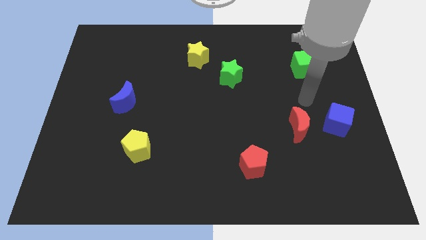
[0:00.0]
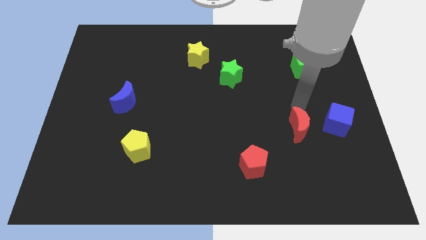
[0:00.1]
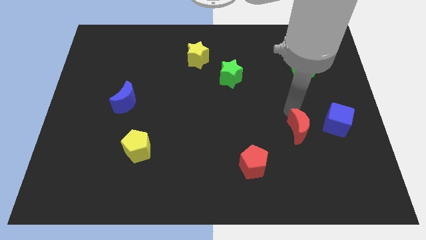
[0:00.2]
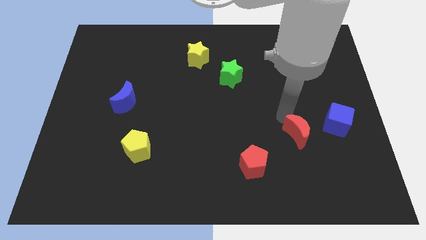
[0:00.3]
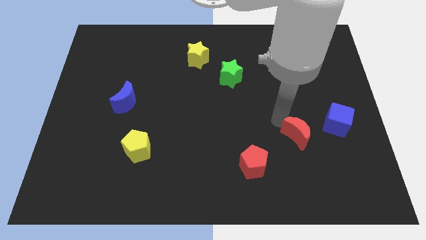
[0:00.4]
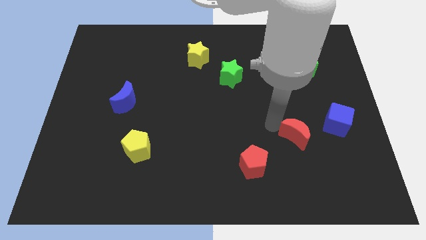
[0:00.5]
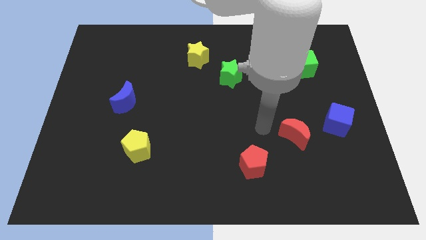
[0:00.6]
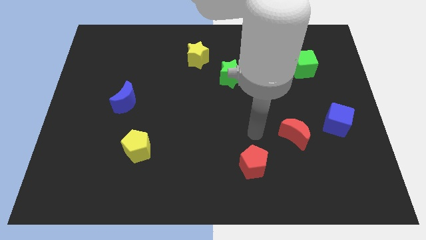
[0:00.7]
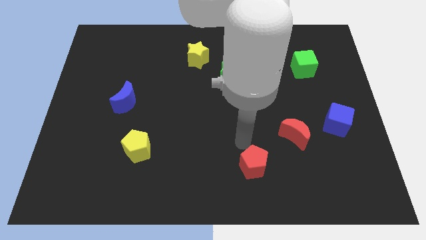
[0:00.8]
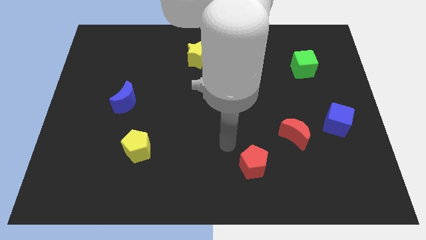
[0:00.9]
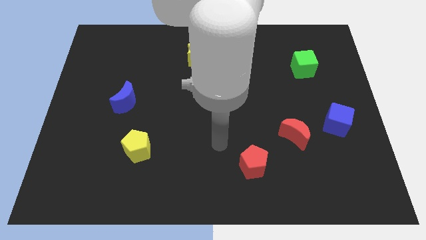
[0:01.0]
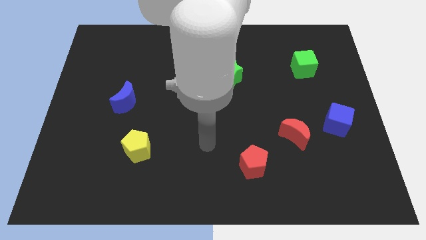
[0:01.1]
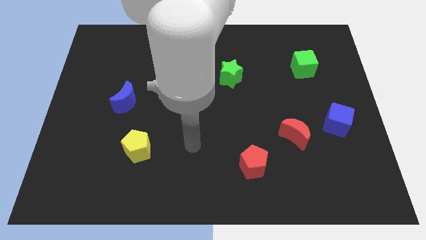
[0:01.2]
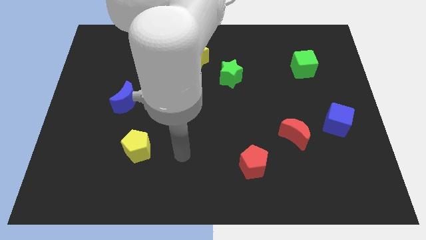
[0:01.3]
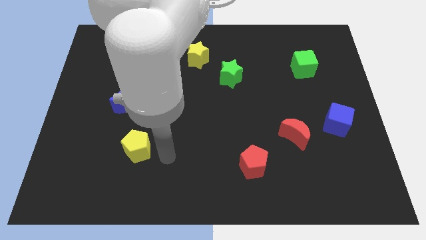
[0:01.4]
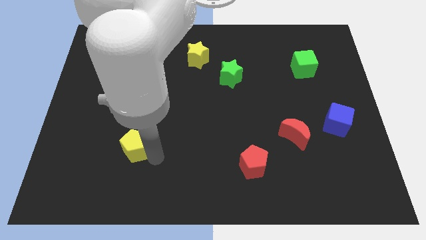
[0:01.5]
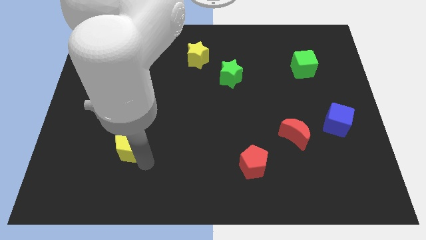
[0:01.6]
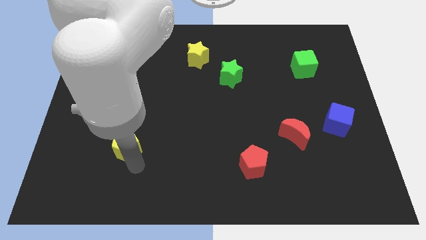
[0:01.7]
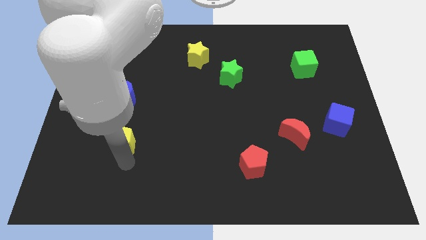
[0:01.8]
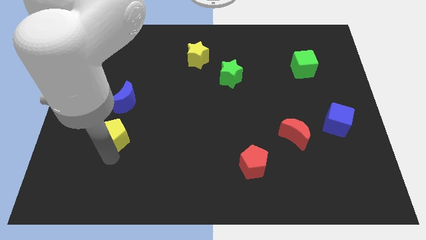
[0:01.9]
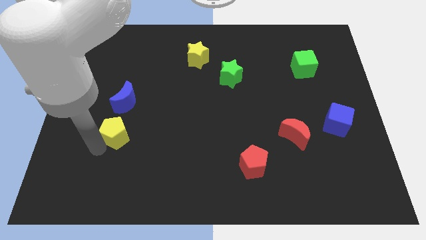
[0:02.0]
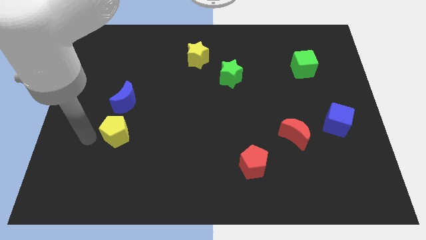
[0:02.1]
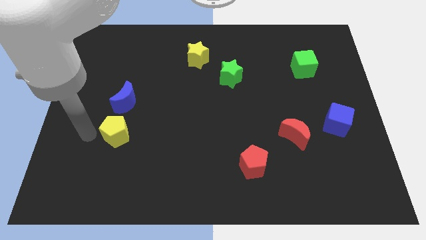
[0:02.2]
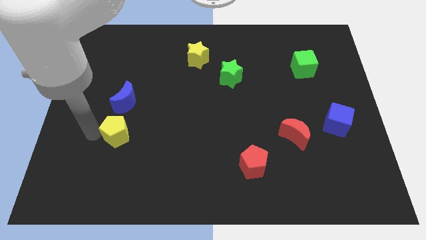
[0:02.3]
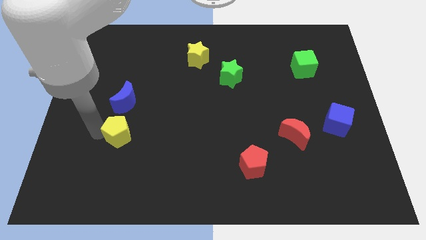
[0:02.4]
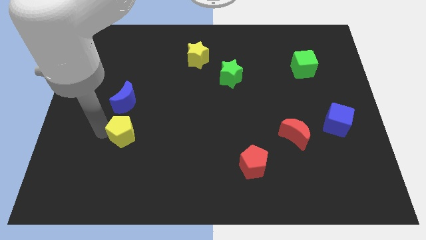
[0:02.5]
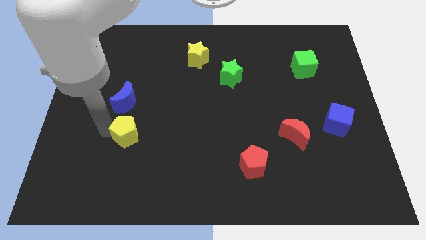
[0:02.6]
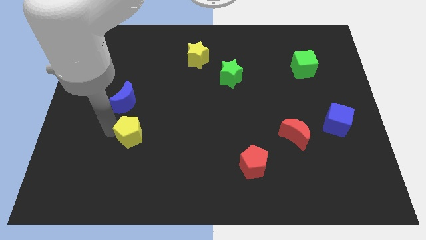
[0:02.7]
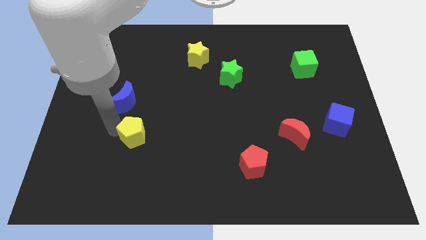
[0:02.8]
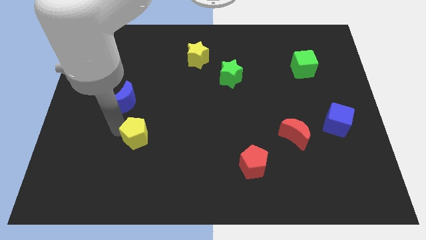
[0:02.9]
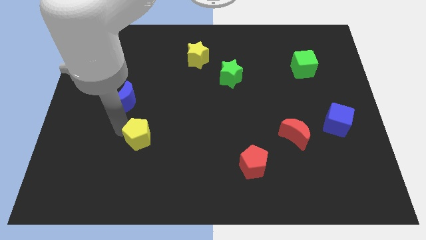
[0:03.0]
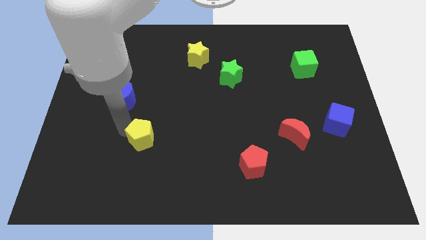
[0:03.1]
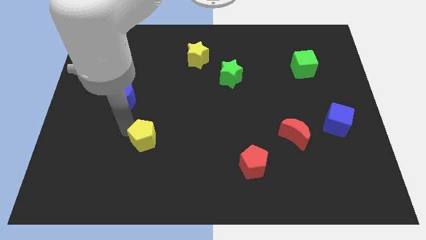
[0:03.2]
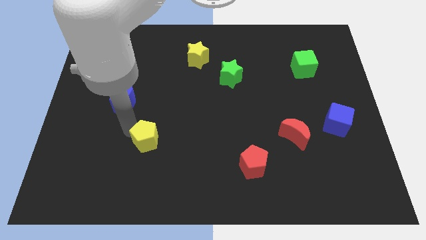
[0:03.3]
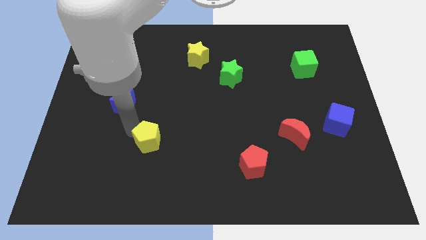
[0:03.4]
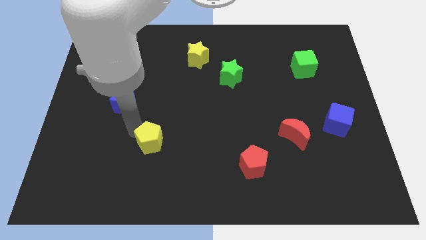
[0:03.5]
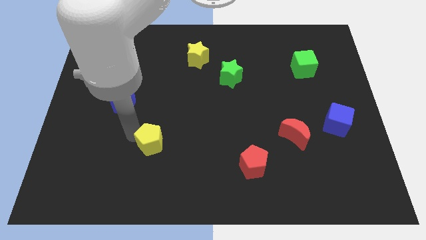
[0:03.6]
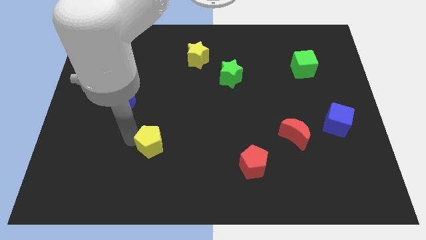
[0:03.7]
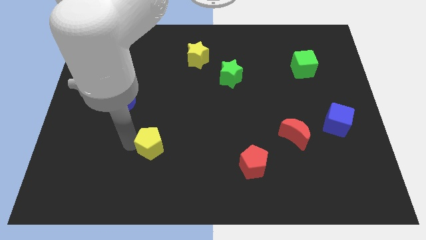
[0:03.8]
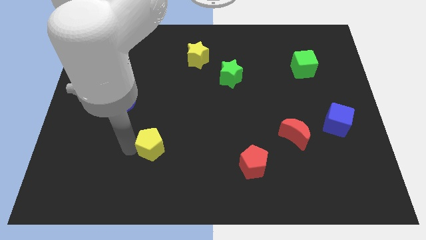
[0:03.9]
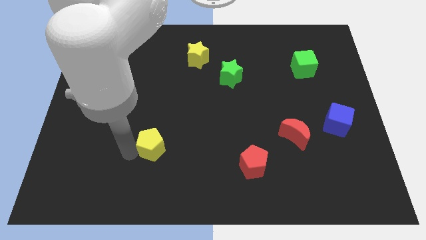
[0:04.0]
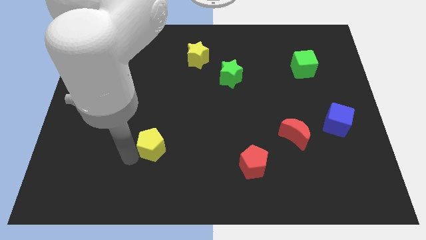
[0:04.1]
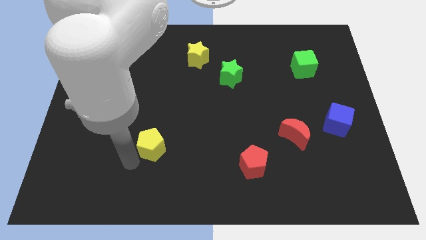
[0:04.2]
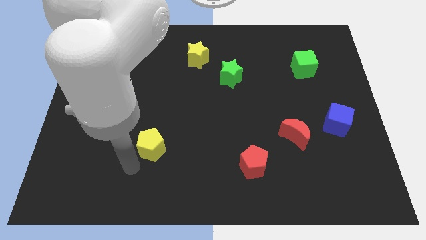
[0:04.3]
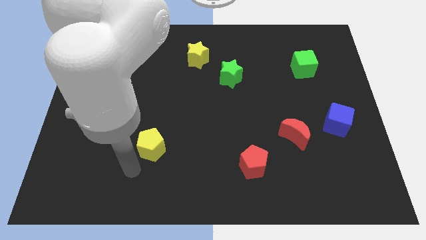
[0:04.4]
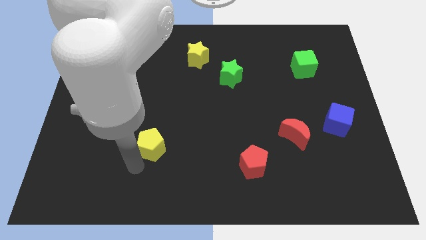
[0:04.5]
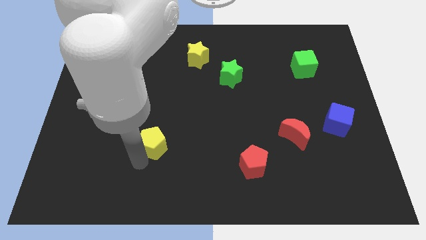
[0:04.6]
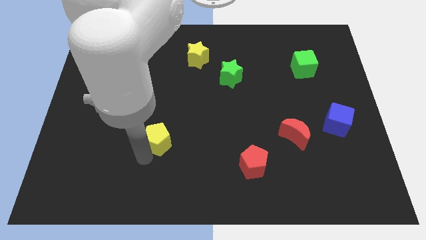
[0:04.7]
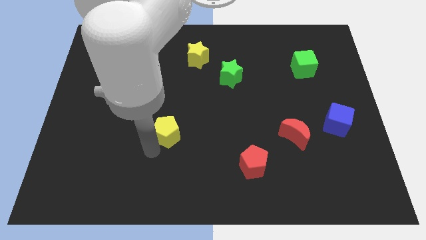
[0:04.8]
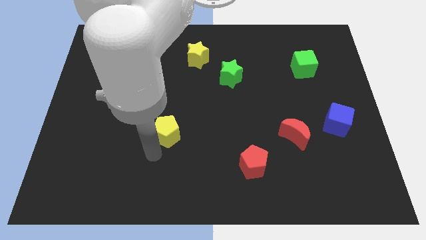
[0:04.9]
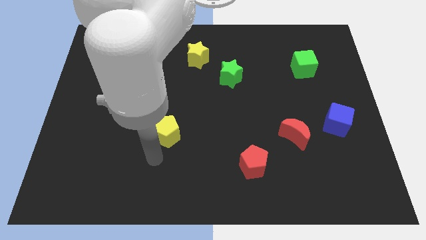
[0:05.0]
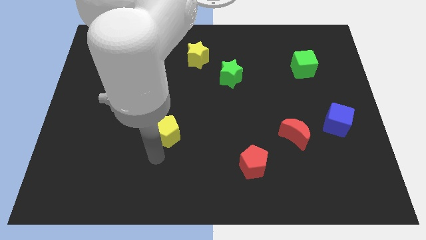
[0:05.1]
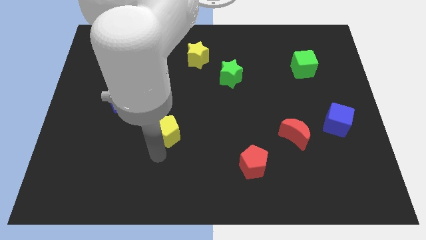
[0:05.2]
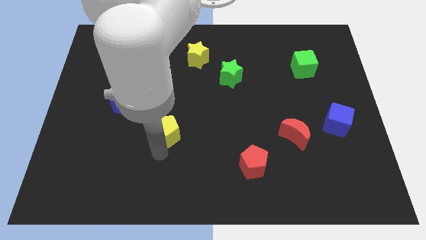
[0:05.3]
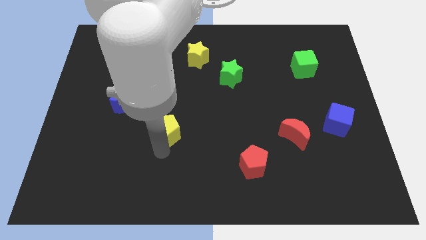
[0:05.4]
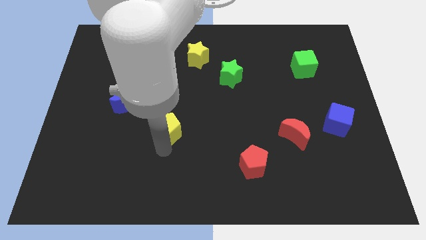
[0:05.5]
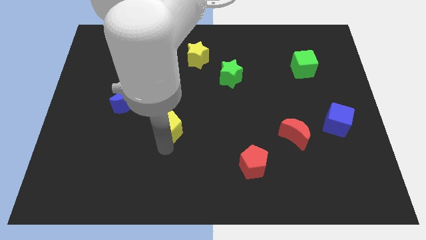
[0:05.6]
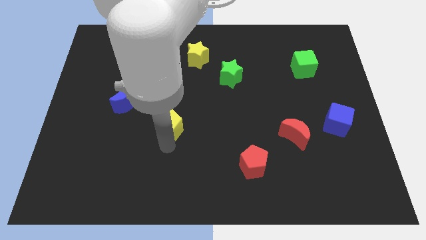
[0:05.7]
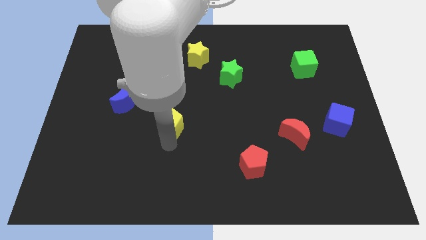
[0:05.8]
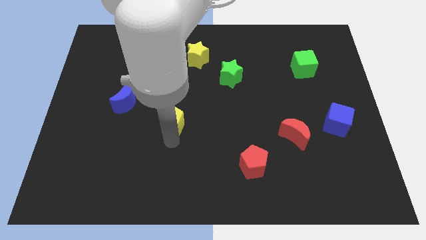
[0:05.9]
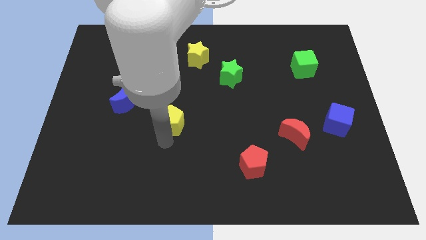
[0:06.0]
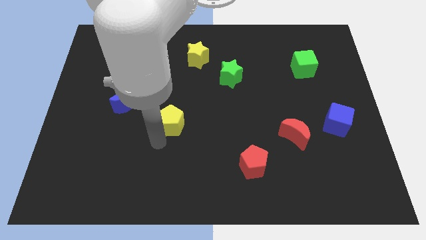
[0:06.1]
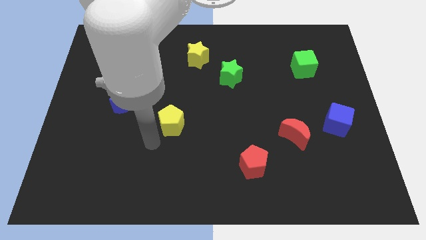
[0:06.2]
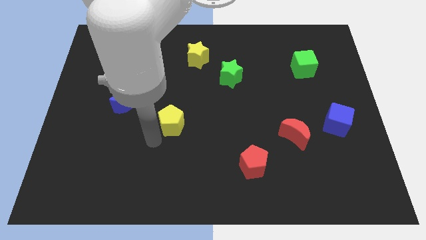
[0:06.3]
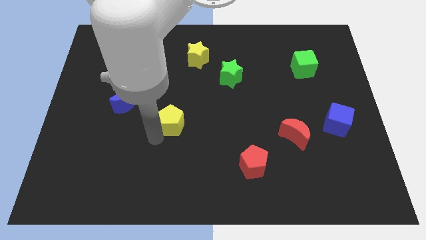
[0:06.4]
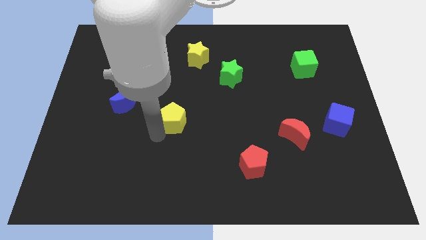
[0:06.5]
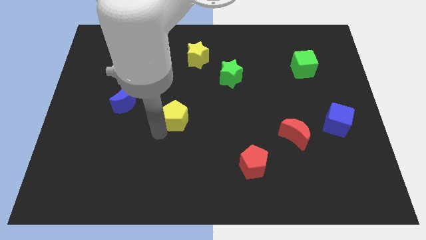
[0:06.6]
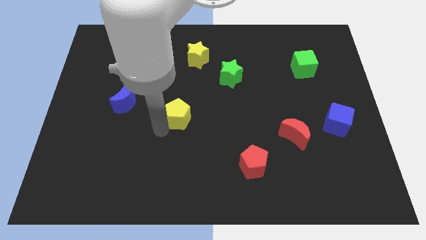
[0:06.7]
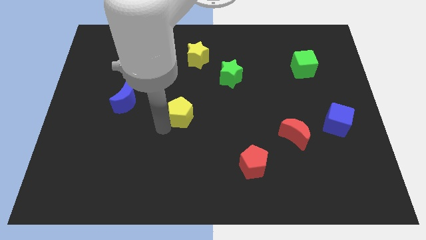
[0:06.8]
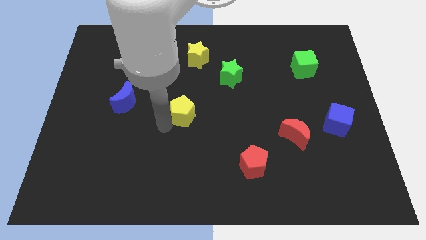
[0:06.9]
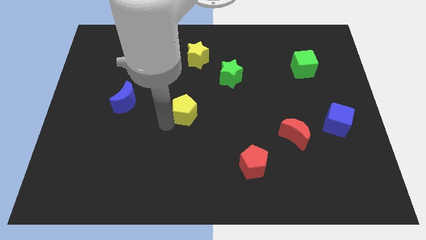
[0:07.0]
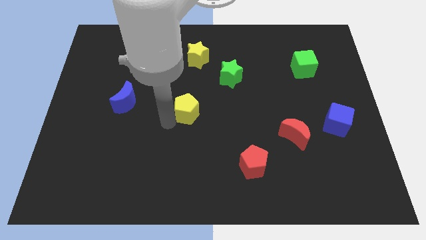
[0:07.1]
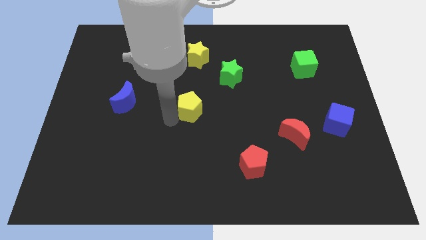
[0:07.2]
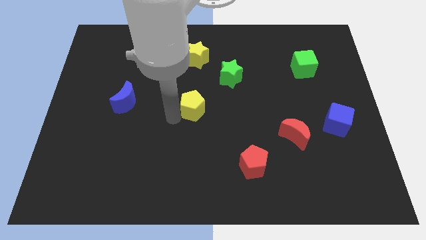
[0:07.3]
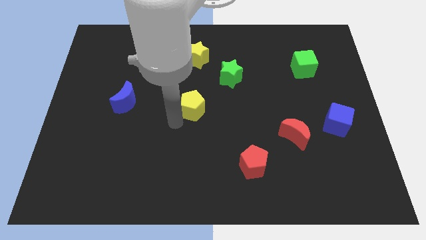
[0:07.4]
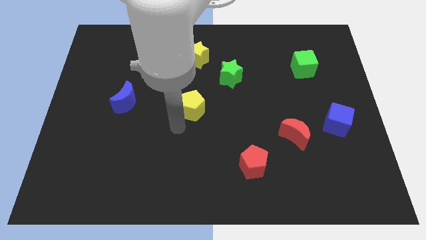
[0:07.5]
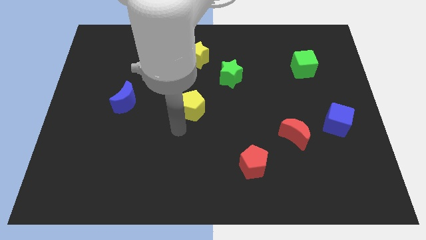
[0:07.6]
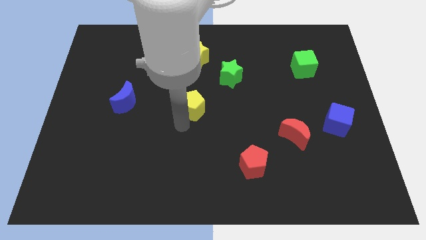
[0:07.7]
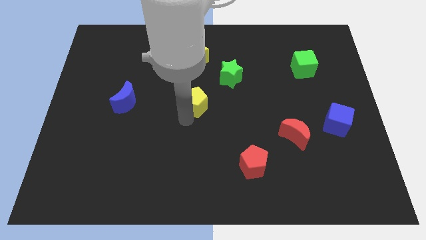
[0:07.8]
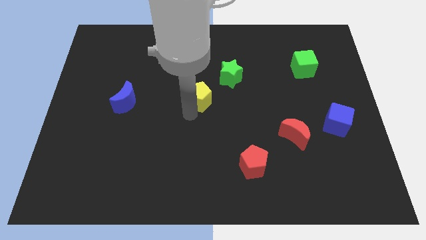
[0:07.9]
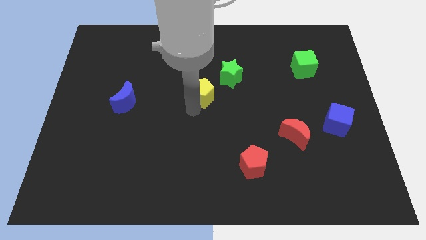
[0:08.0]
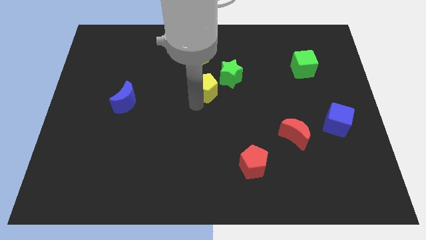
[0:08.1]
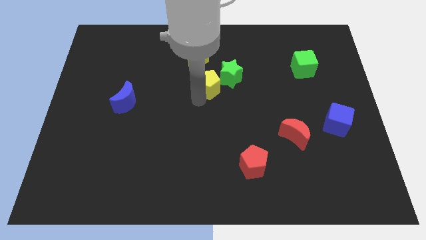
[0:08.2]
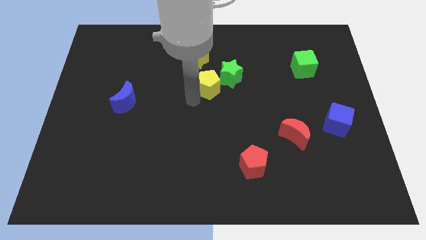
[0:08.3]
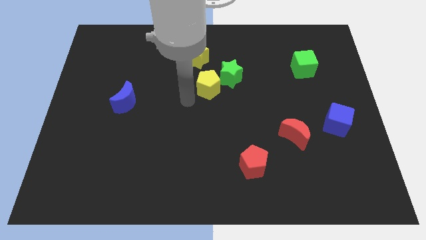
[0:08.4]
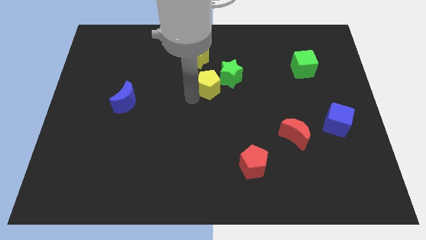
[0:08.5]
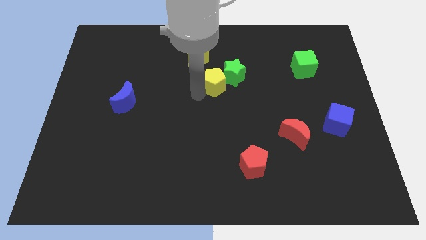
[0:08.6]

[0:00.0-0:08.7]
push the yellow pentagon to the green star
